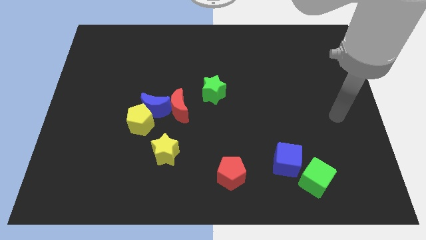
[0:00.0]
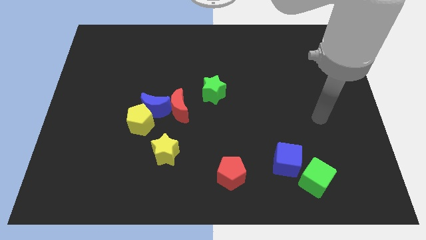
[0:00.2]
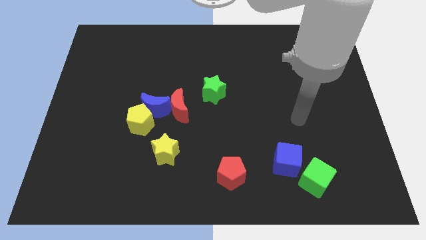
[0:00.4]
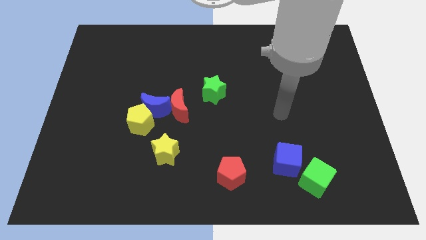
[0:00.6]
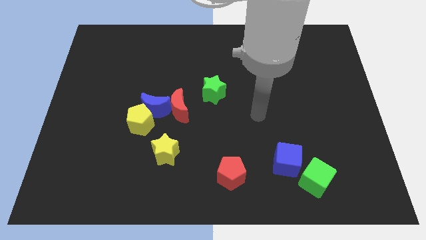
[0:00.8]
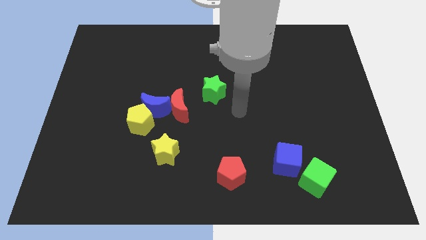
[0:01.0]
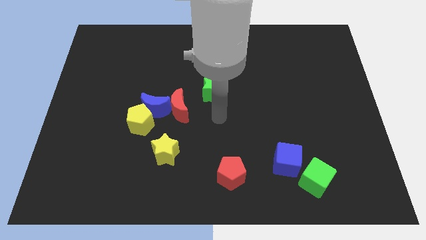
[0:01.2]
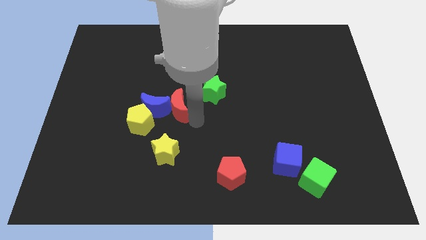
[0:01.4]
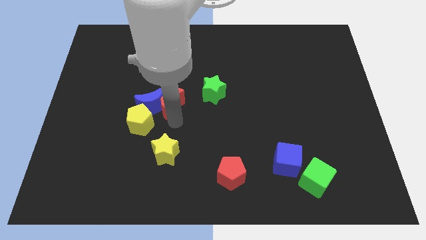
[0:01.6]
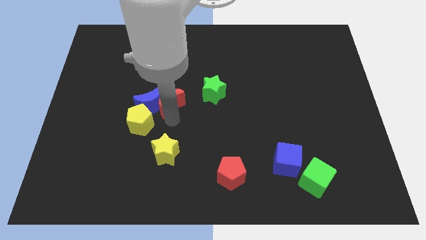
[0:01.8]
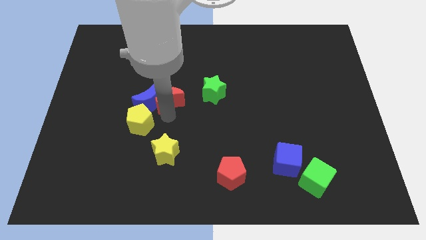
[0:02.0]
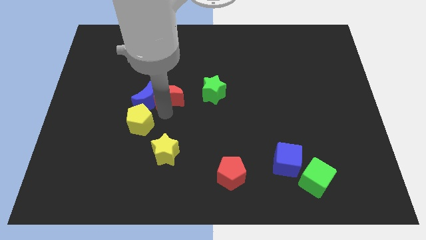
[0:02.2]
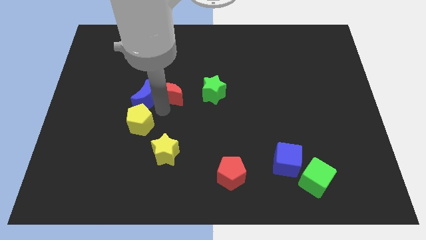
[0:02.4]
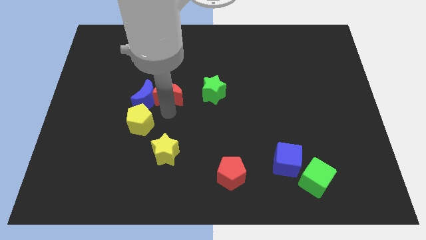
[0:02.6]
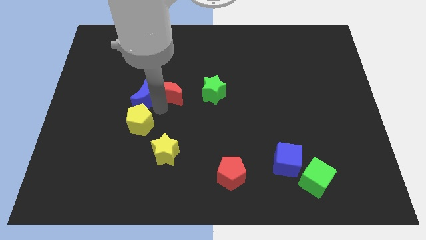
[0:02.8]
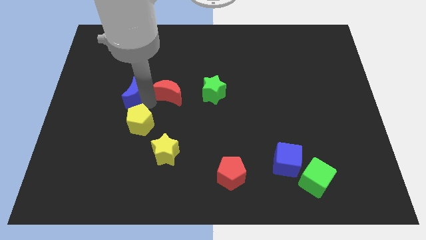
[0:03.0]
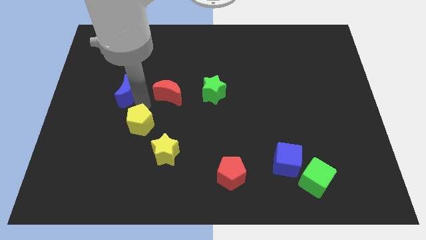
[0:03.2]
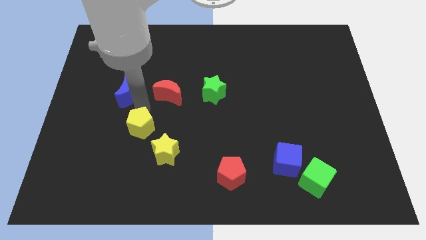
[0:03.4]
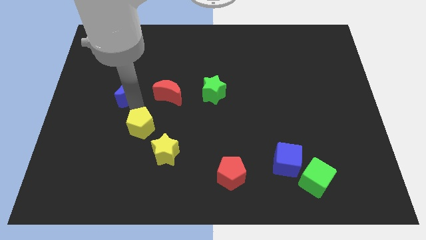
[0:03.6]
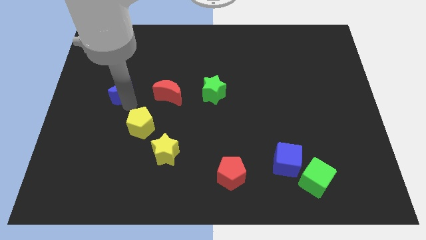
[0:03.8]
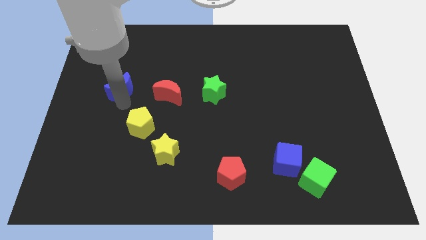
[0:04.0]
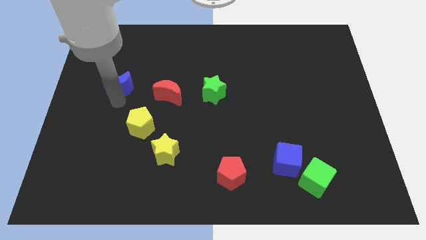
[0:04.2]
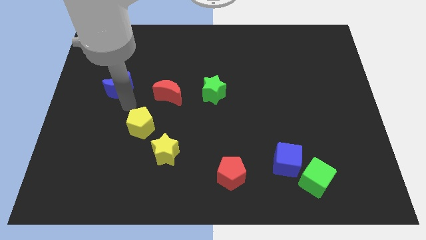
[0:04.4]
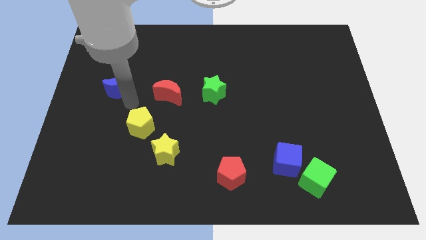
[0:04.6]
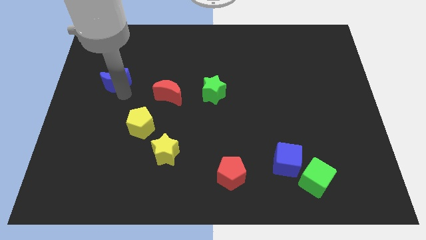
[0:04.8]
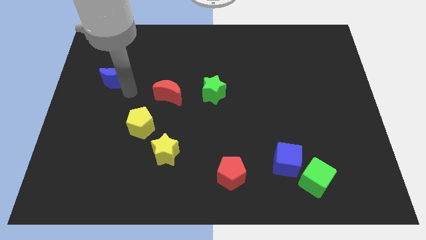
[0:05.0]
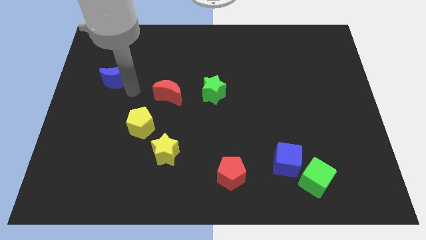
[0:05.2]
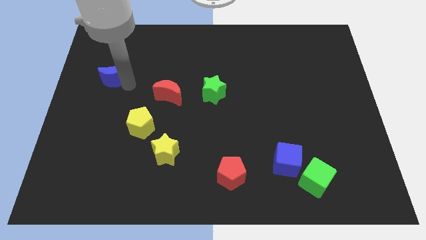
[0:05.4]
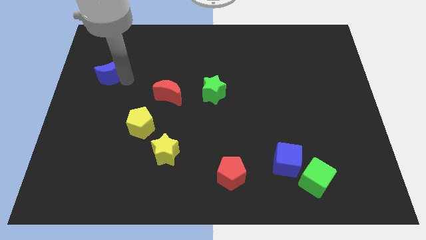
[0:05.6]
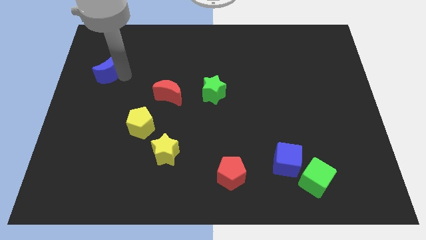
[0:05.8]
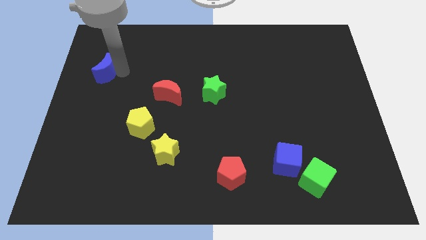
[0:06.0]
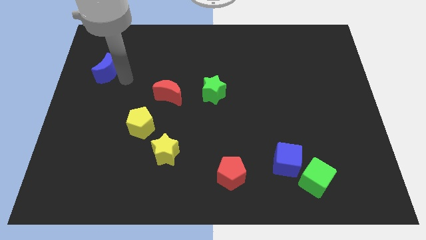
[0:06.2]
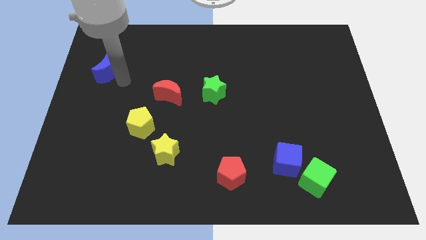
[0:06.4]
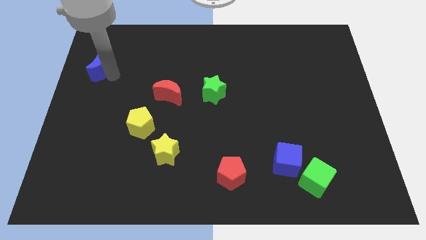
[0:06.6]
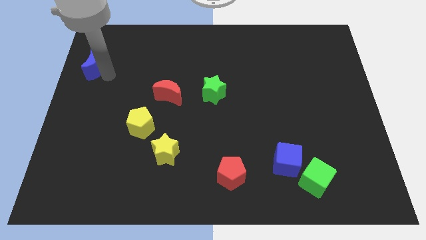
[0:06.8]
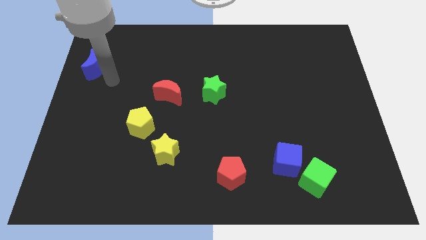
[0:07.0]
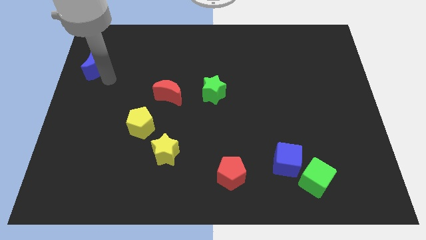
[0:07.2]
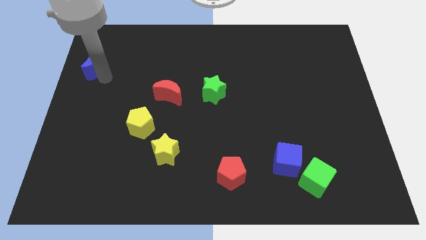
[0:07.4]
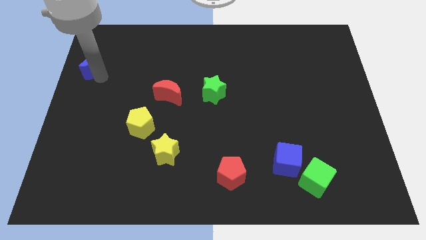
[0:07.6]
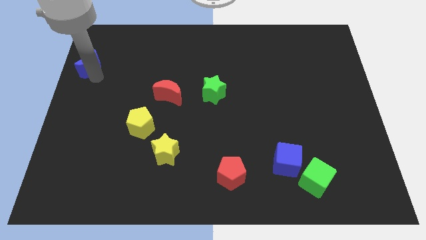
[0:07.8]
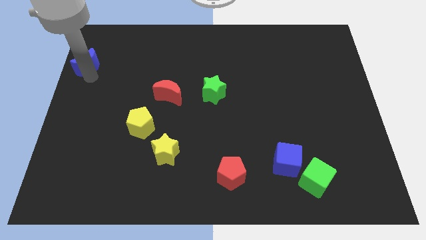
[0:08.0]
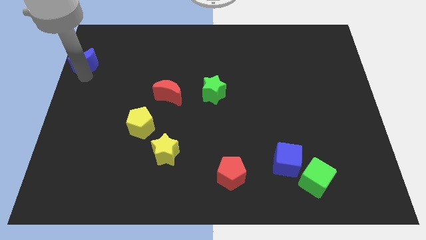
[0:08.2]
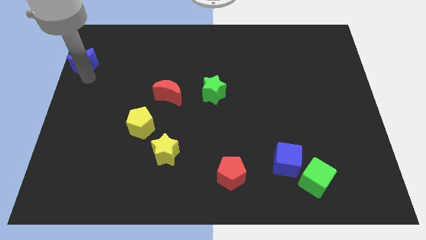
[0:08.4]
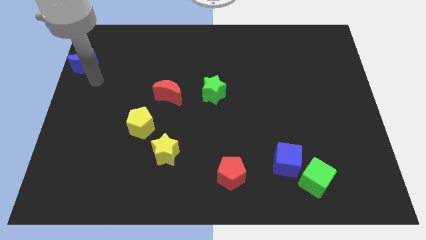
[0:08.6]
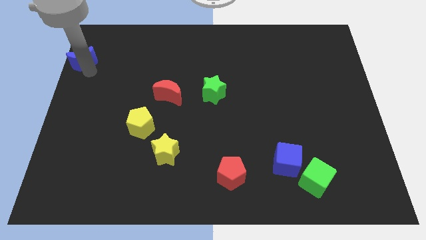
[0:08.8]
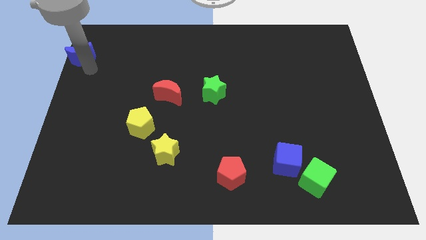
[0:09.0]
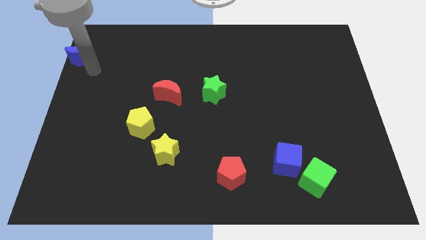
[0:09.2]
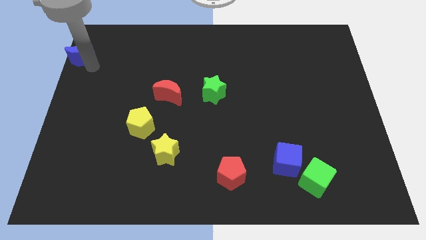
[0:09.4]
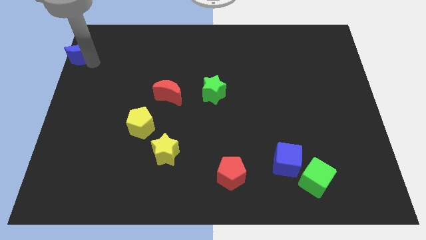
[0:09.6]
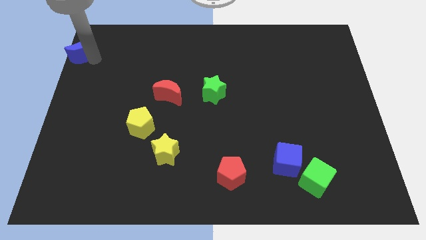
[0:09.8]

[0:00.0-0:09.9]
push the blue moon to the top left of the board

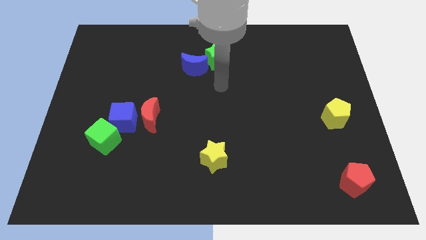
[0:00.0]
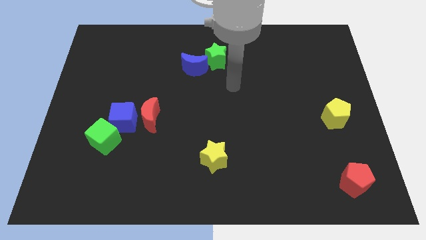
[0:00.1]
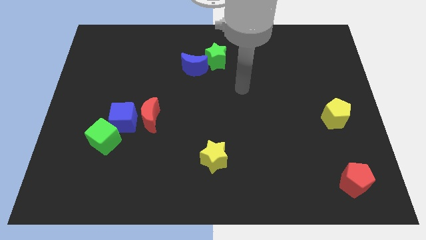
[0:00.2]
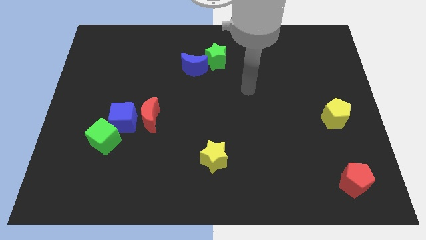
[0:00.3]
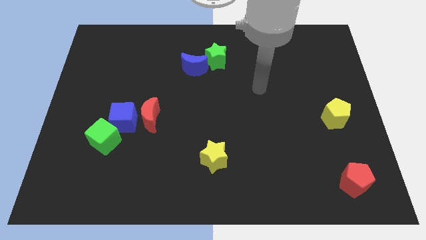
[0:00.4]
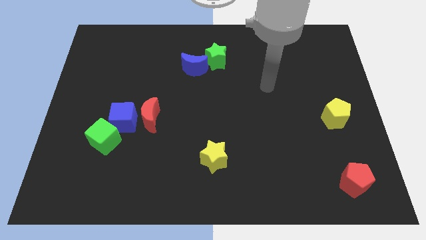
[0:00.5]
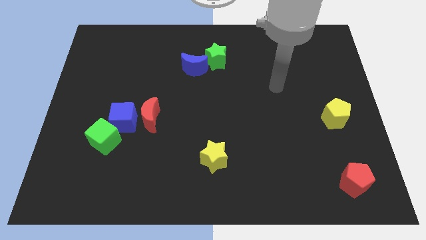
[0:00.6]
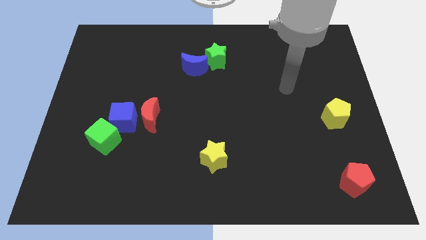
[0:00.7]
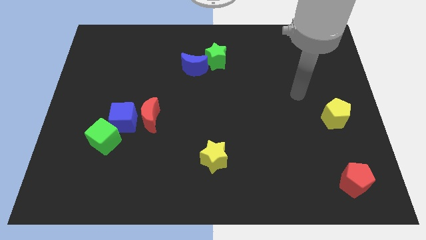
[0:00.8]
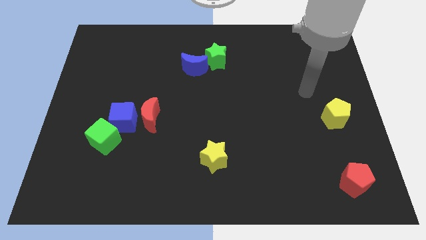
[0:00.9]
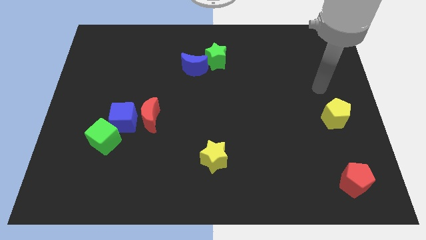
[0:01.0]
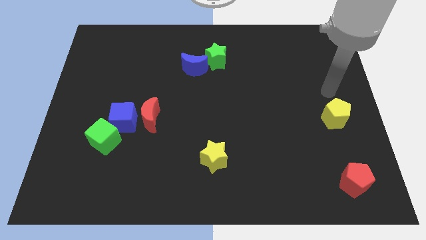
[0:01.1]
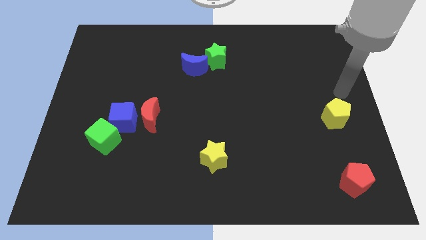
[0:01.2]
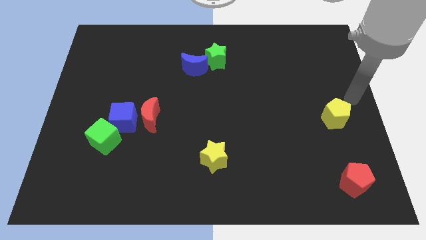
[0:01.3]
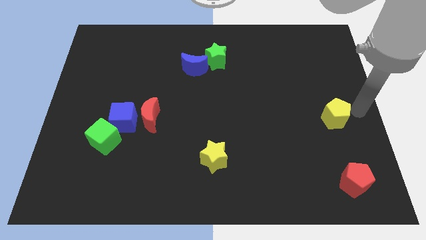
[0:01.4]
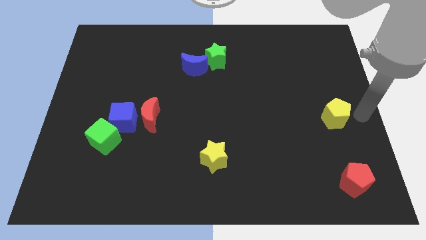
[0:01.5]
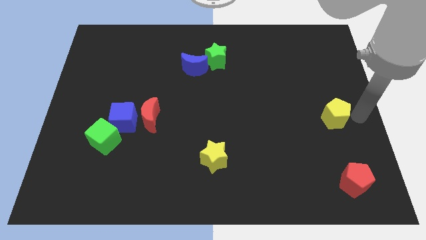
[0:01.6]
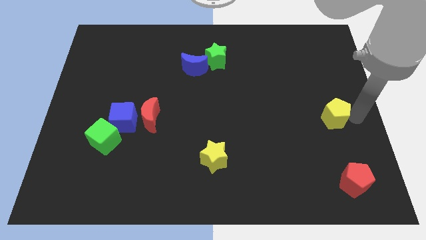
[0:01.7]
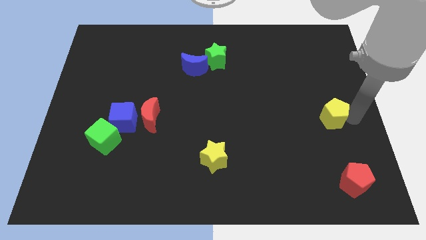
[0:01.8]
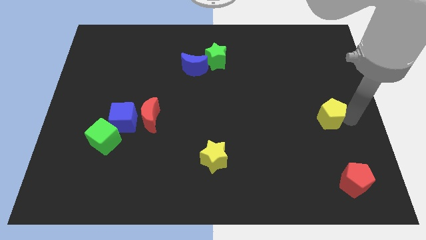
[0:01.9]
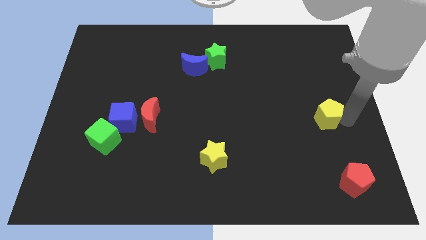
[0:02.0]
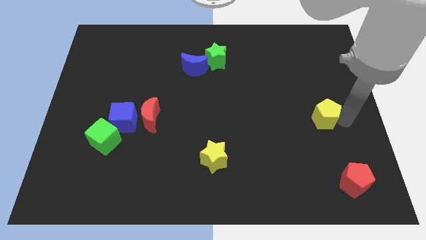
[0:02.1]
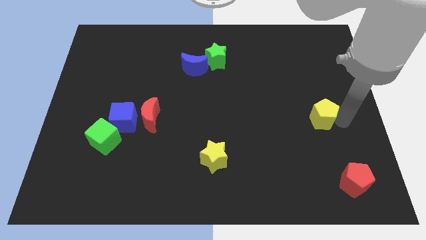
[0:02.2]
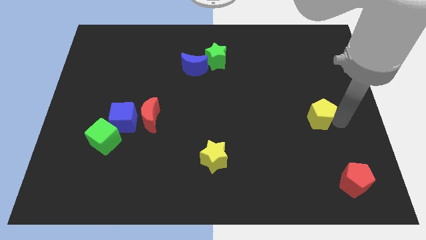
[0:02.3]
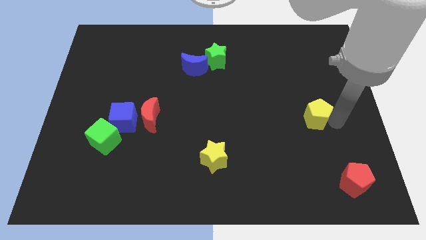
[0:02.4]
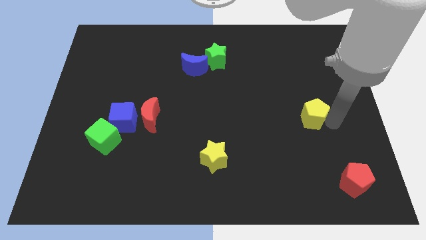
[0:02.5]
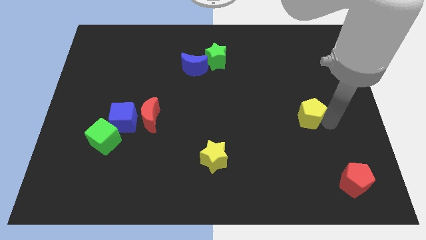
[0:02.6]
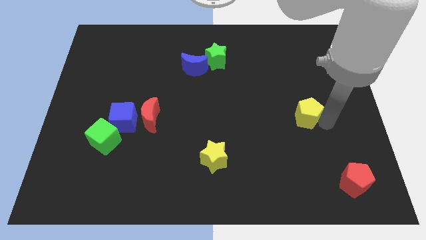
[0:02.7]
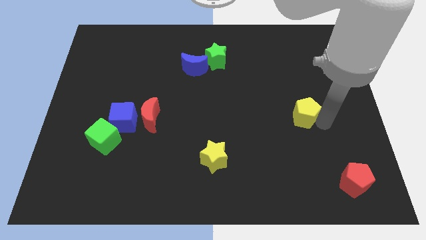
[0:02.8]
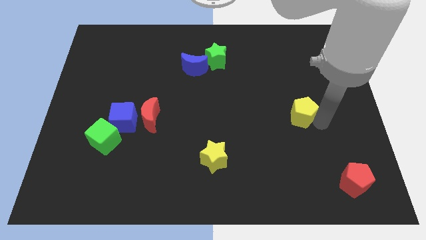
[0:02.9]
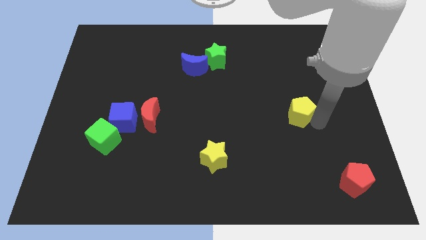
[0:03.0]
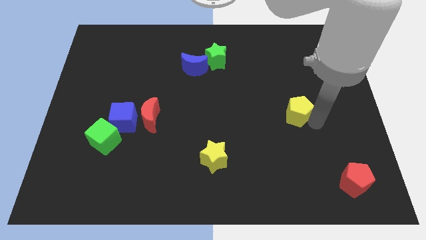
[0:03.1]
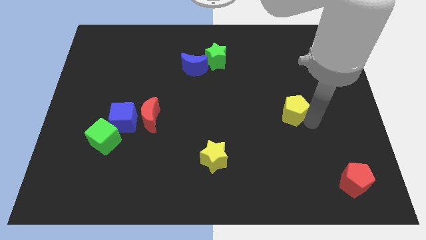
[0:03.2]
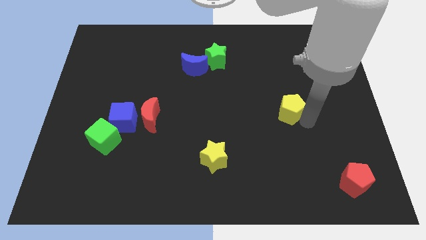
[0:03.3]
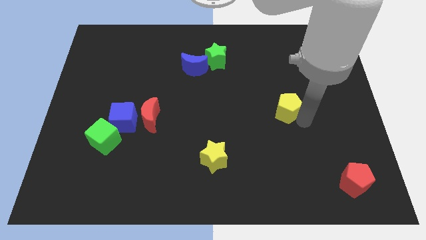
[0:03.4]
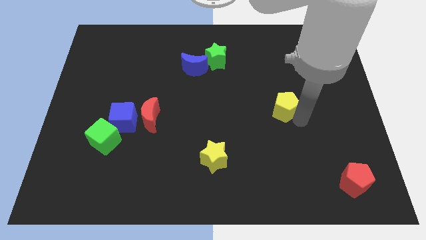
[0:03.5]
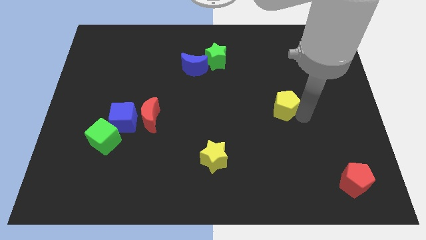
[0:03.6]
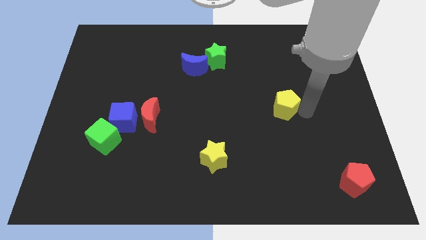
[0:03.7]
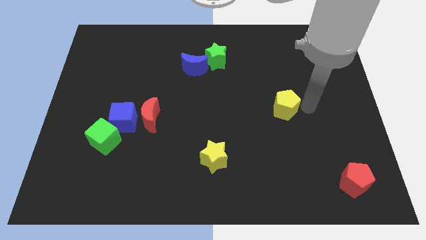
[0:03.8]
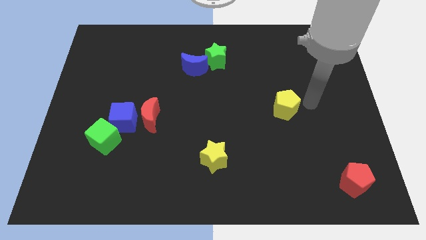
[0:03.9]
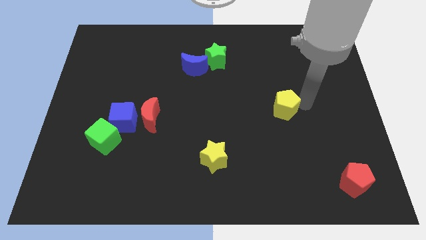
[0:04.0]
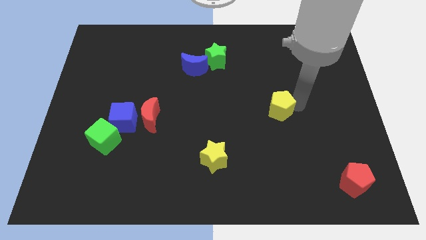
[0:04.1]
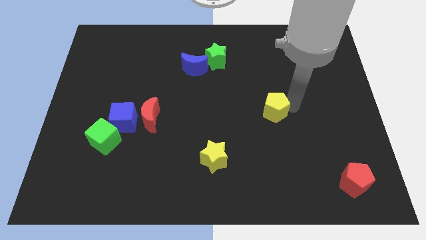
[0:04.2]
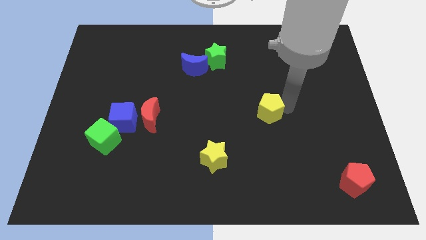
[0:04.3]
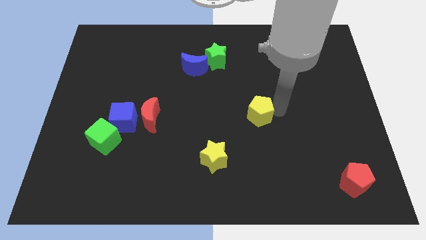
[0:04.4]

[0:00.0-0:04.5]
put the yellow pentagon to the center
